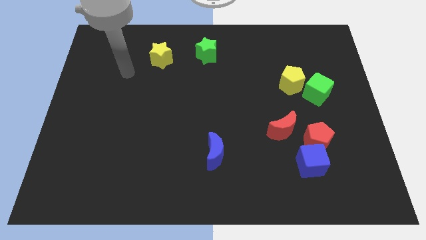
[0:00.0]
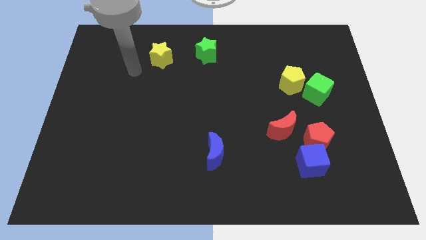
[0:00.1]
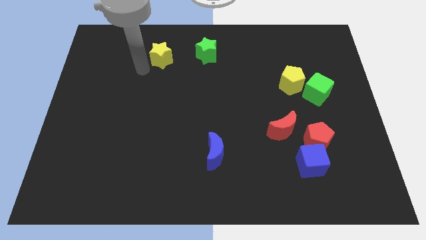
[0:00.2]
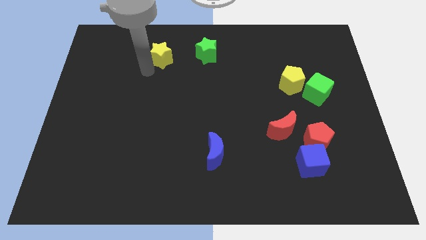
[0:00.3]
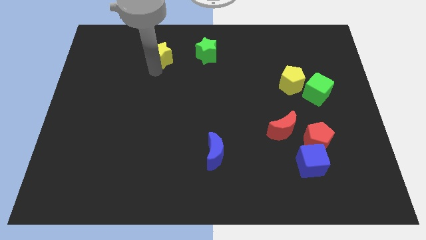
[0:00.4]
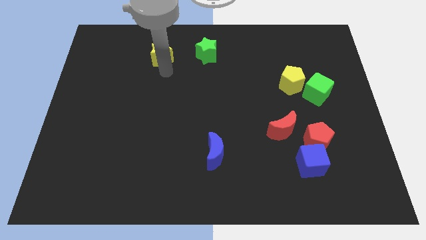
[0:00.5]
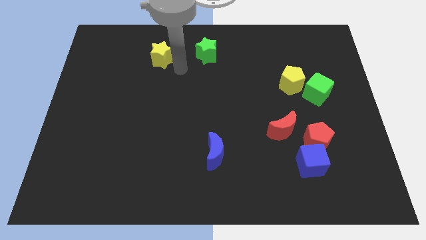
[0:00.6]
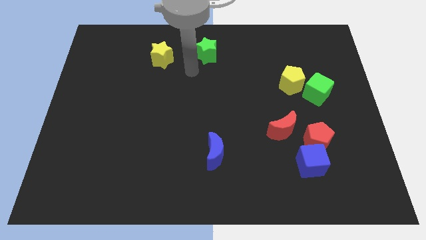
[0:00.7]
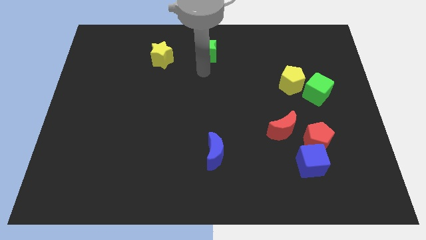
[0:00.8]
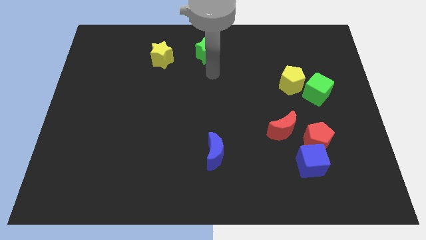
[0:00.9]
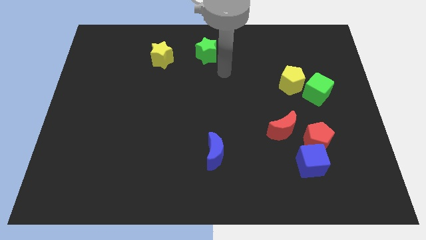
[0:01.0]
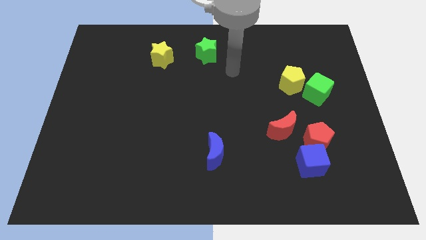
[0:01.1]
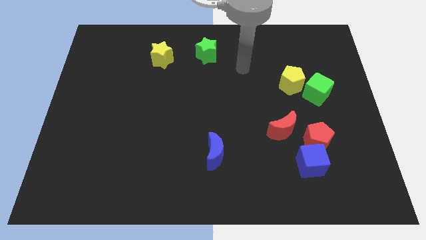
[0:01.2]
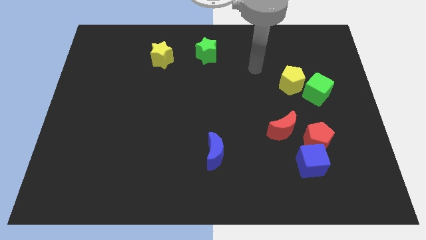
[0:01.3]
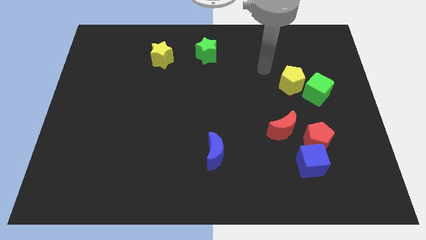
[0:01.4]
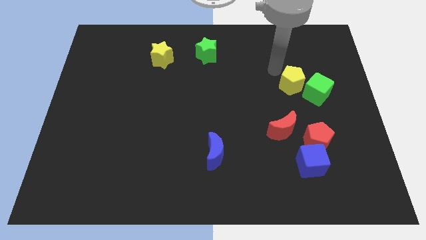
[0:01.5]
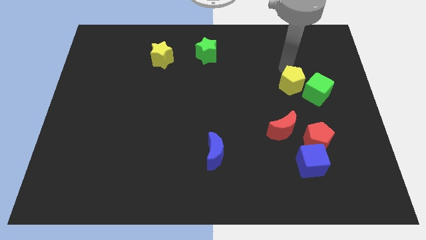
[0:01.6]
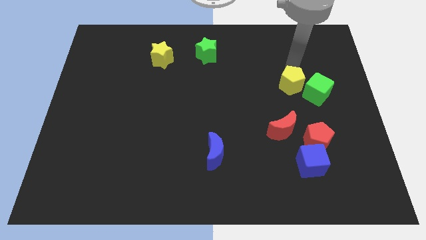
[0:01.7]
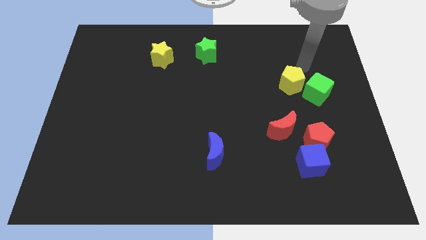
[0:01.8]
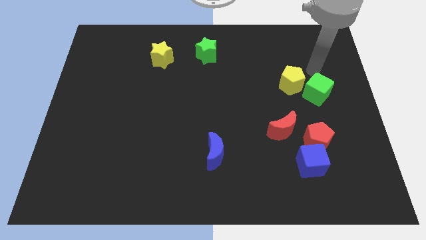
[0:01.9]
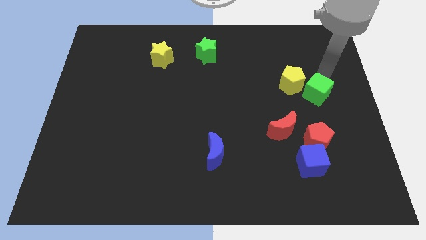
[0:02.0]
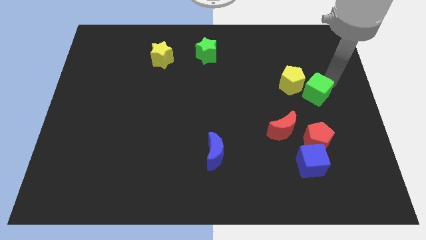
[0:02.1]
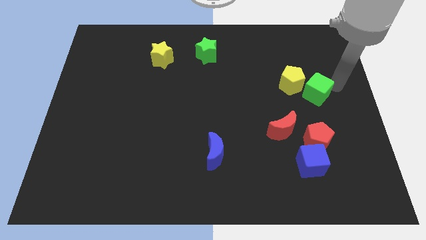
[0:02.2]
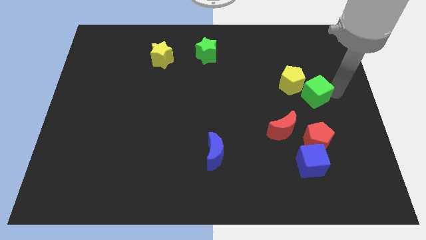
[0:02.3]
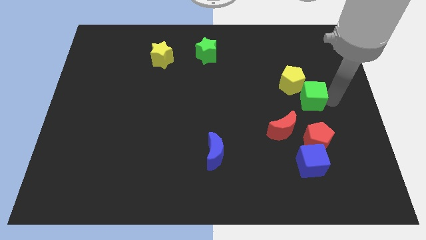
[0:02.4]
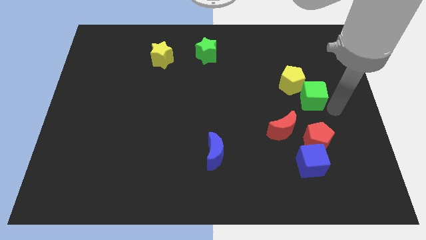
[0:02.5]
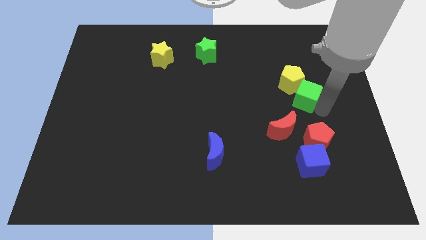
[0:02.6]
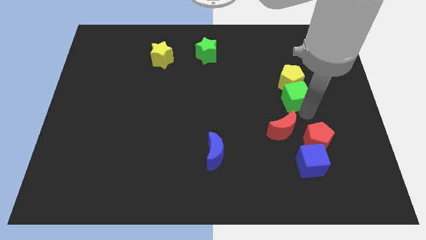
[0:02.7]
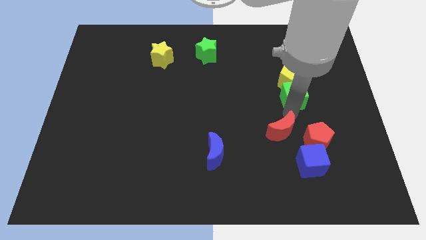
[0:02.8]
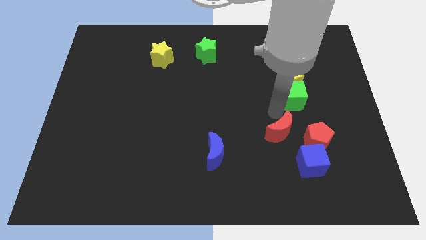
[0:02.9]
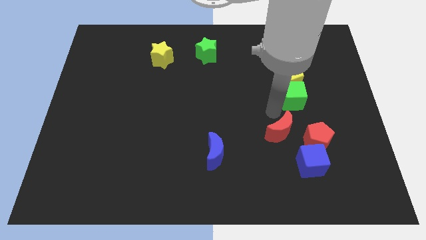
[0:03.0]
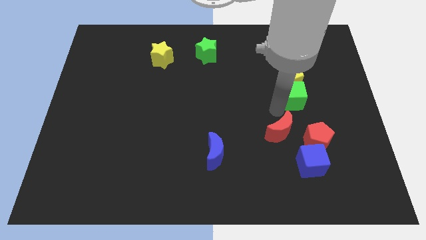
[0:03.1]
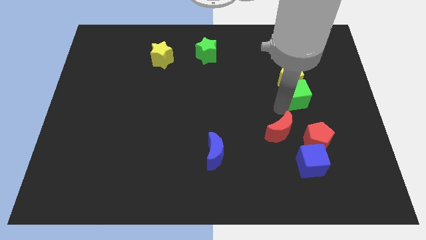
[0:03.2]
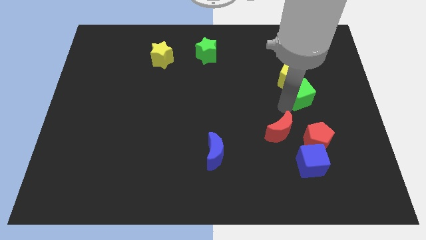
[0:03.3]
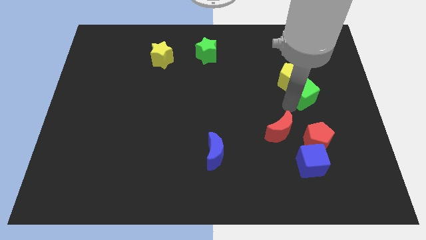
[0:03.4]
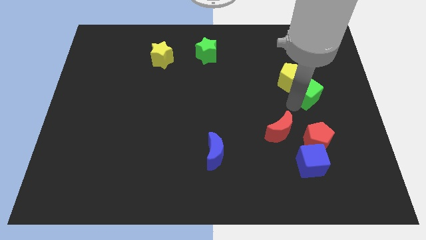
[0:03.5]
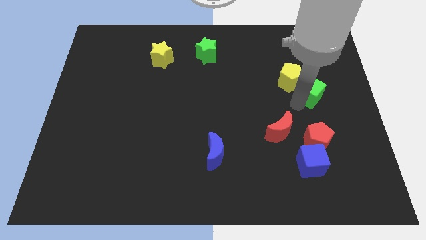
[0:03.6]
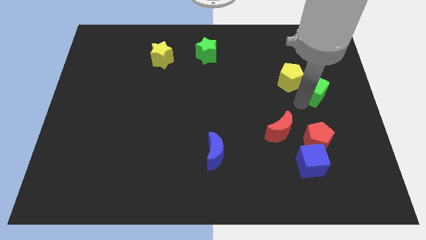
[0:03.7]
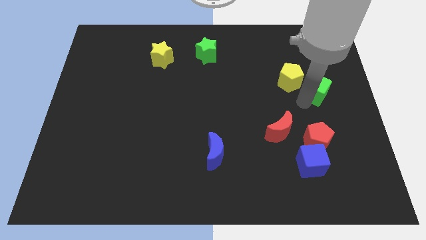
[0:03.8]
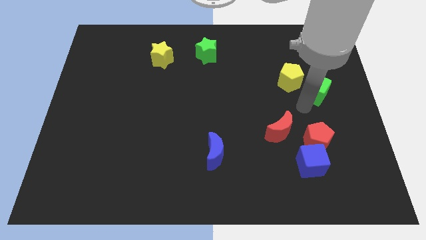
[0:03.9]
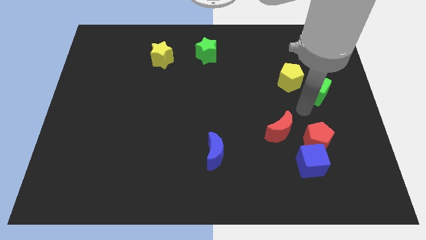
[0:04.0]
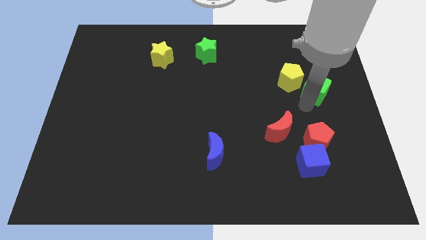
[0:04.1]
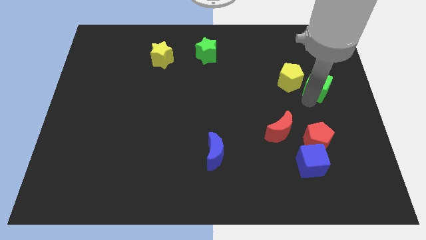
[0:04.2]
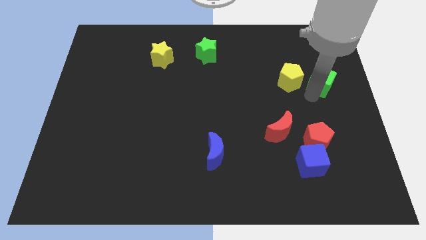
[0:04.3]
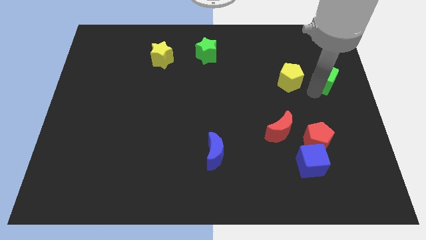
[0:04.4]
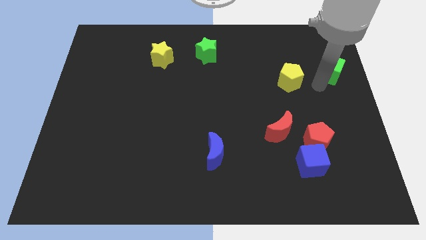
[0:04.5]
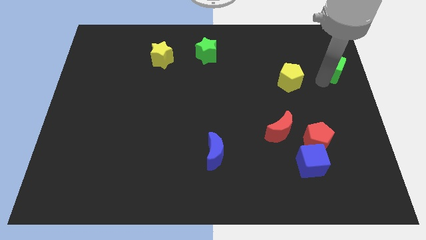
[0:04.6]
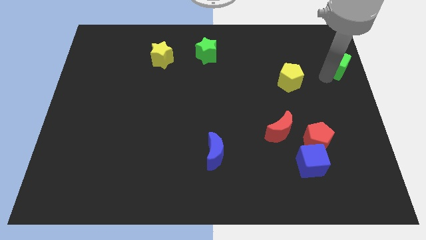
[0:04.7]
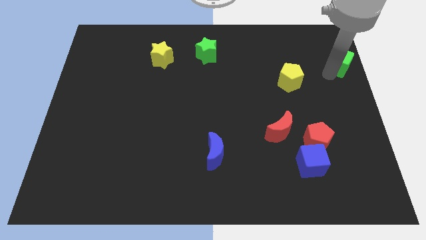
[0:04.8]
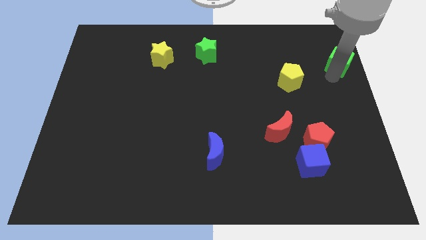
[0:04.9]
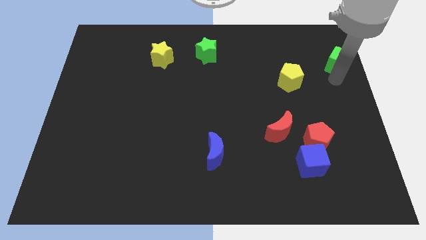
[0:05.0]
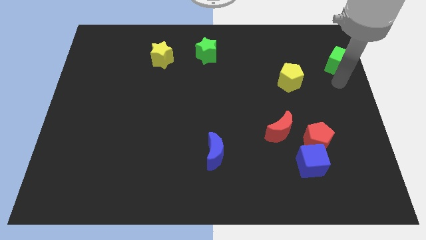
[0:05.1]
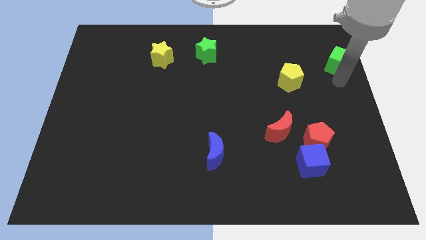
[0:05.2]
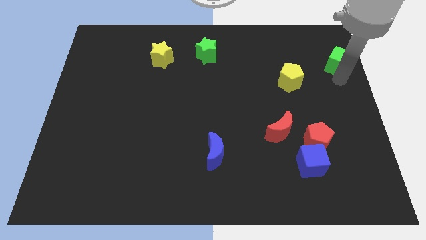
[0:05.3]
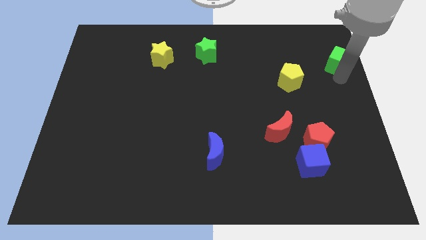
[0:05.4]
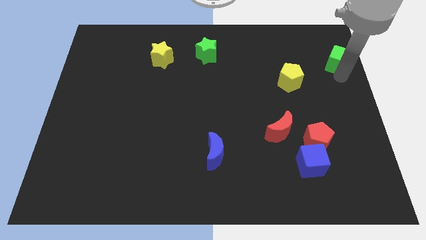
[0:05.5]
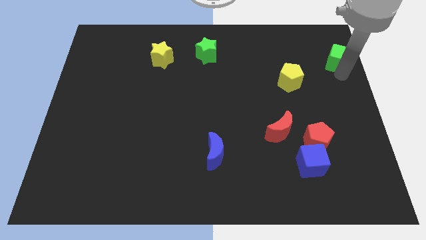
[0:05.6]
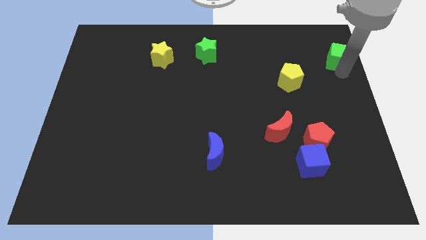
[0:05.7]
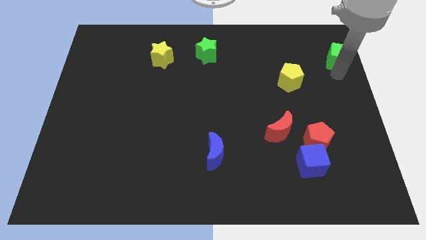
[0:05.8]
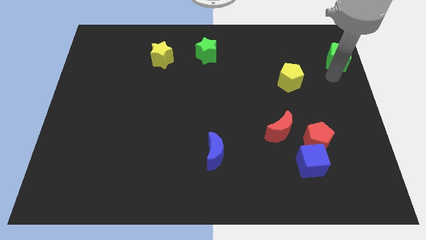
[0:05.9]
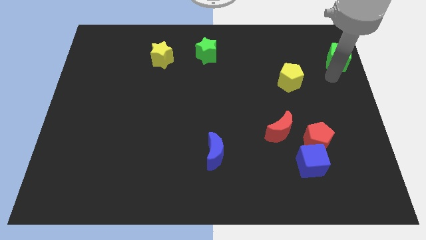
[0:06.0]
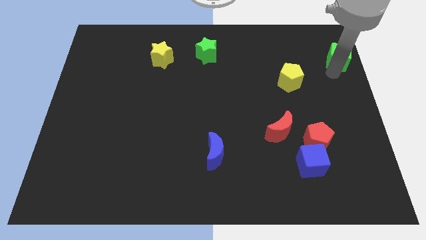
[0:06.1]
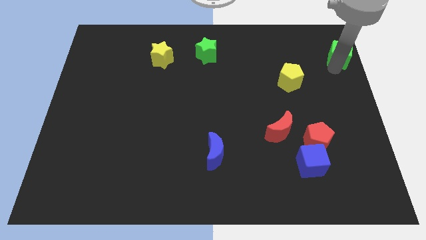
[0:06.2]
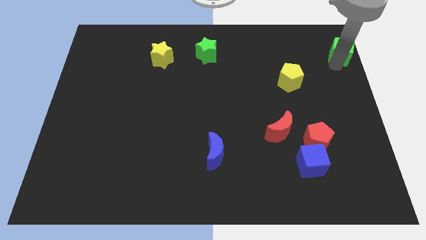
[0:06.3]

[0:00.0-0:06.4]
push the green cube to the top right corner
